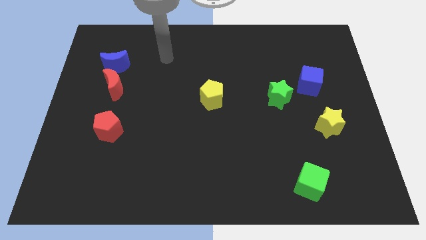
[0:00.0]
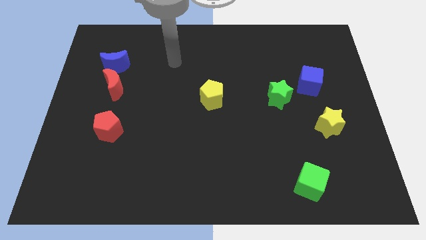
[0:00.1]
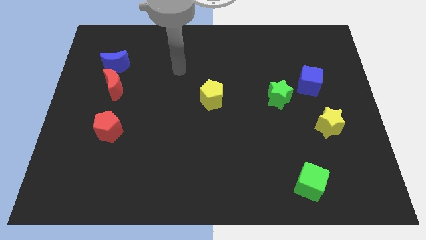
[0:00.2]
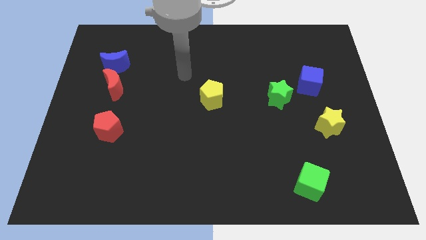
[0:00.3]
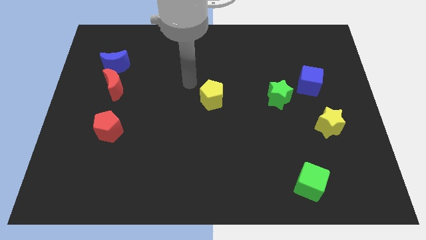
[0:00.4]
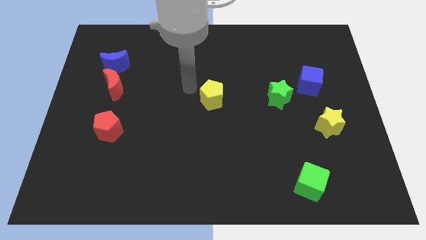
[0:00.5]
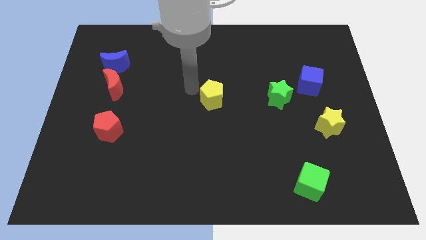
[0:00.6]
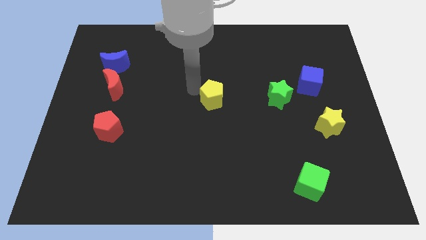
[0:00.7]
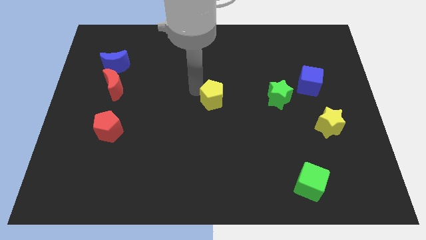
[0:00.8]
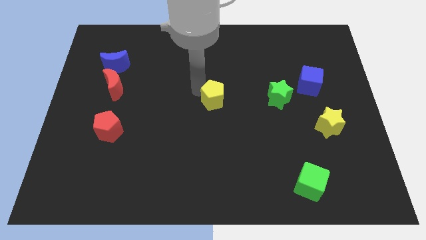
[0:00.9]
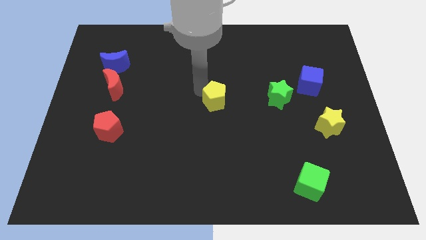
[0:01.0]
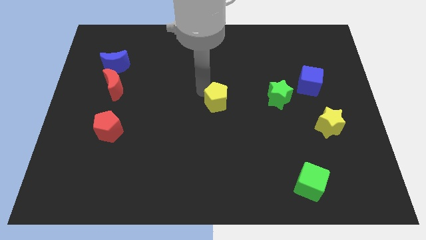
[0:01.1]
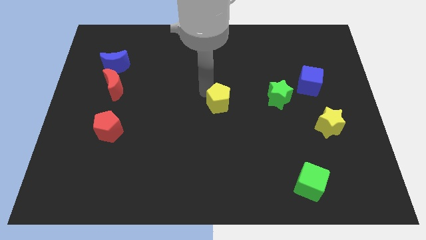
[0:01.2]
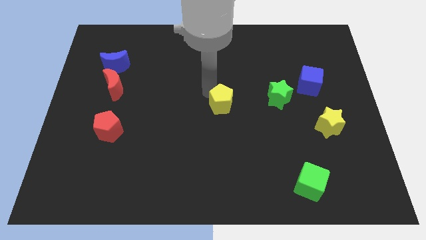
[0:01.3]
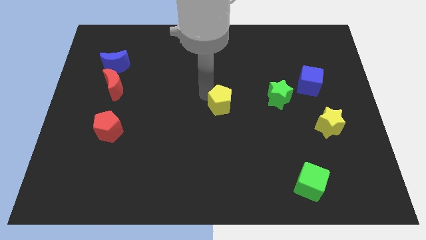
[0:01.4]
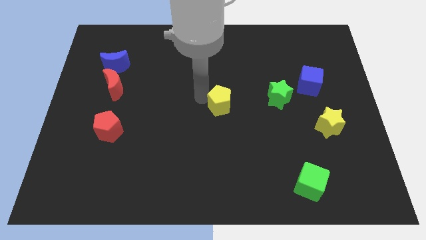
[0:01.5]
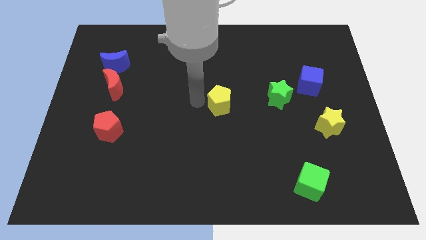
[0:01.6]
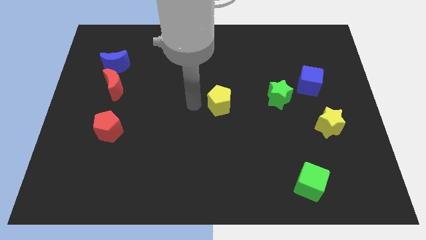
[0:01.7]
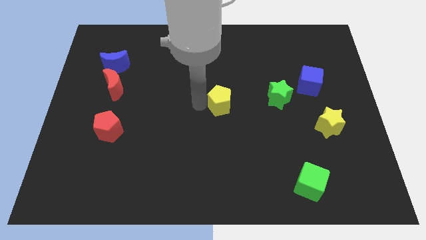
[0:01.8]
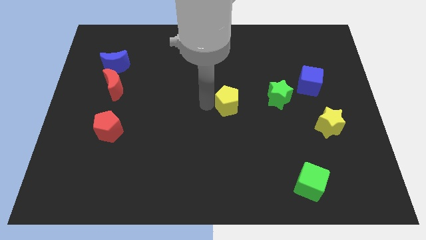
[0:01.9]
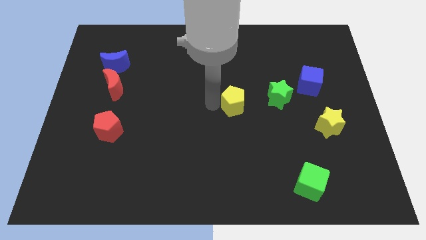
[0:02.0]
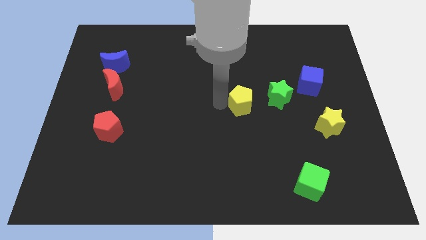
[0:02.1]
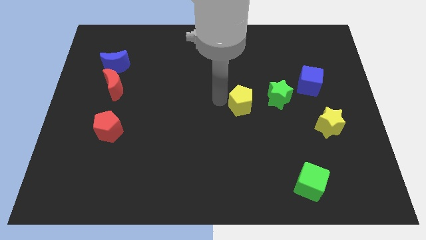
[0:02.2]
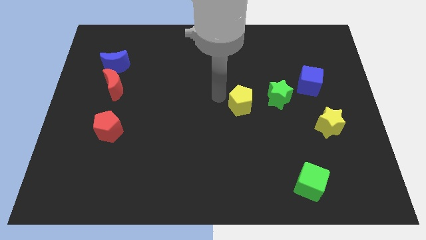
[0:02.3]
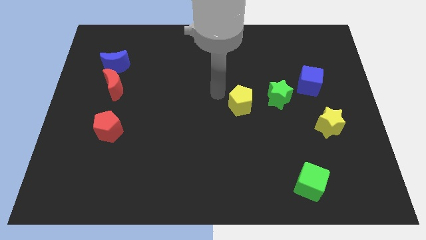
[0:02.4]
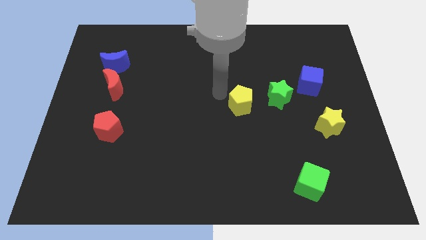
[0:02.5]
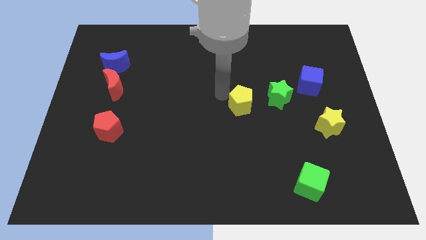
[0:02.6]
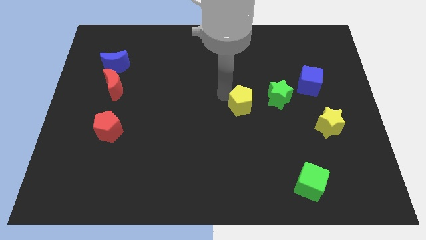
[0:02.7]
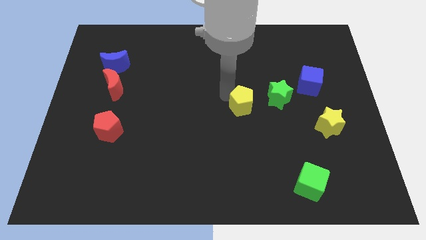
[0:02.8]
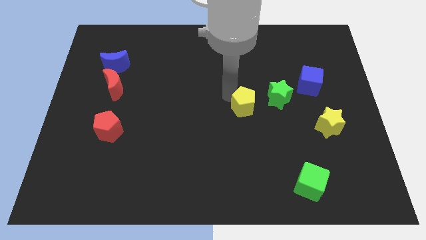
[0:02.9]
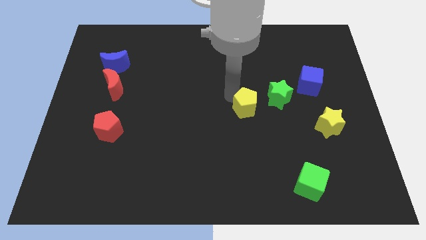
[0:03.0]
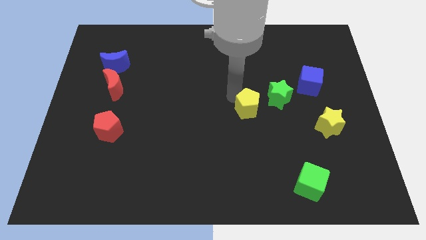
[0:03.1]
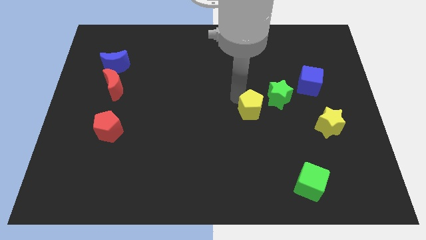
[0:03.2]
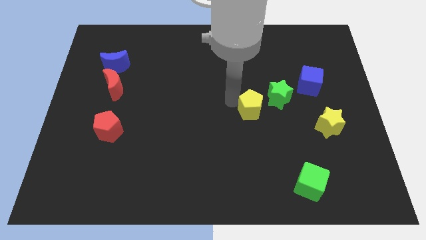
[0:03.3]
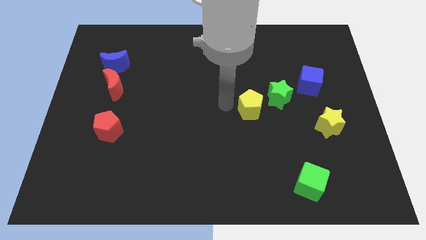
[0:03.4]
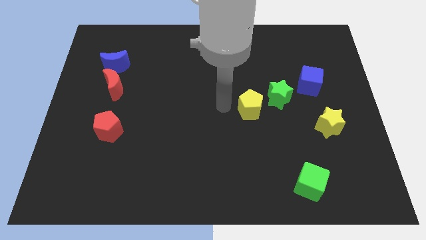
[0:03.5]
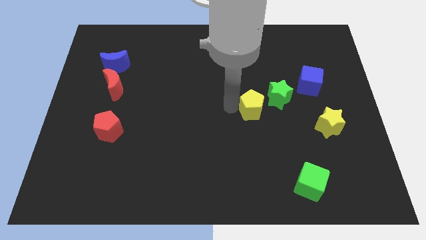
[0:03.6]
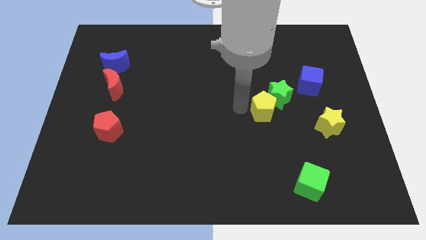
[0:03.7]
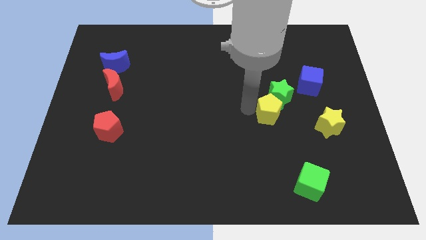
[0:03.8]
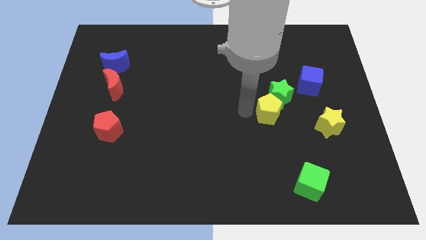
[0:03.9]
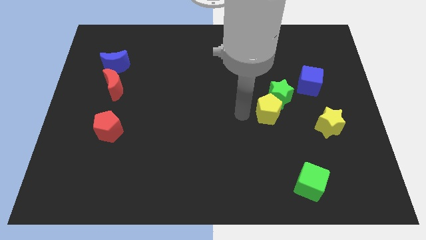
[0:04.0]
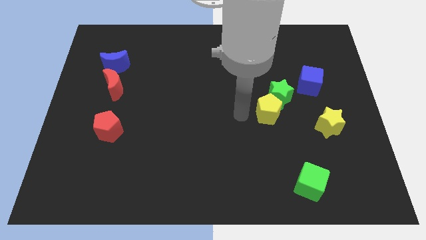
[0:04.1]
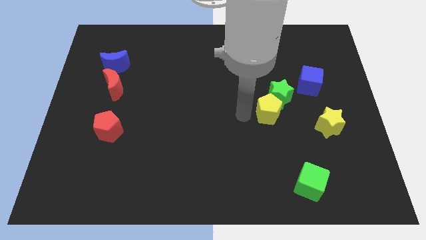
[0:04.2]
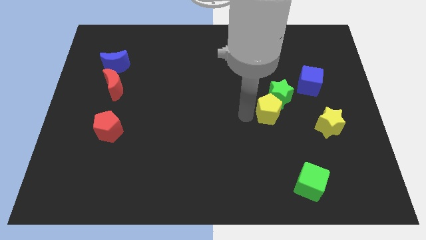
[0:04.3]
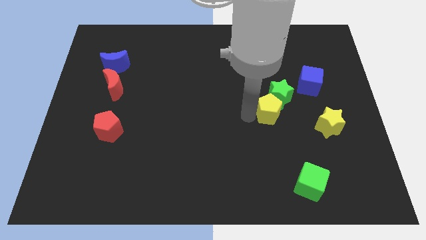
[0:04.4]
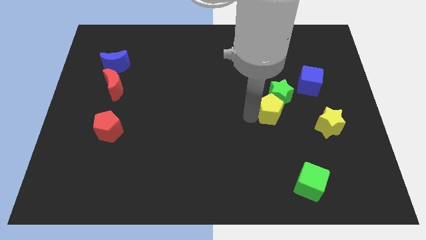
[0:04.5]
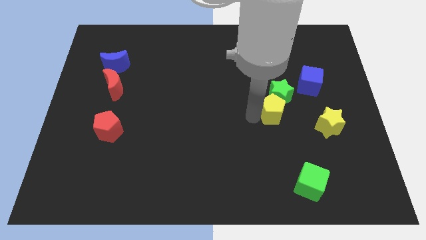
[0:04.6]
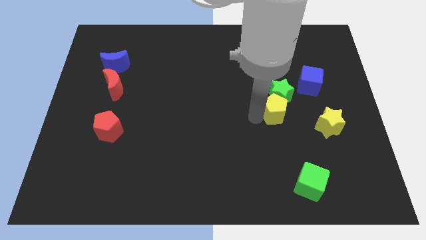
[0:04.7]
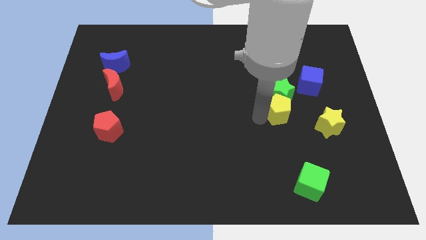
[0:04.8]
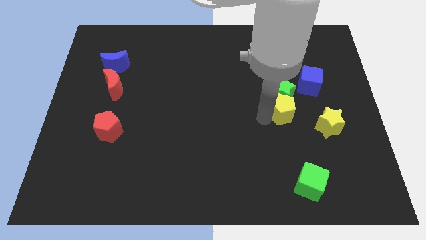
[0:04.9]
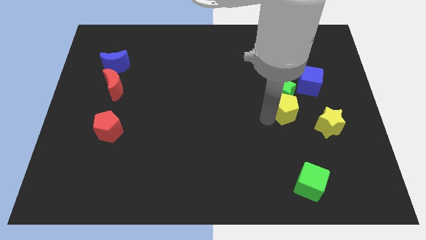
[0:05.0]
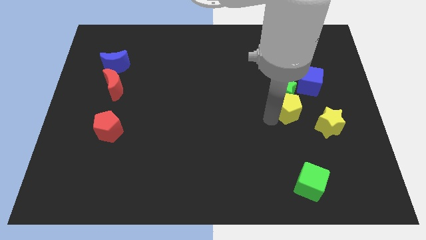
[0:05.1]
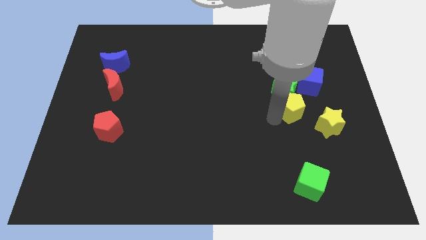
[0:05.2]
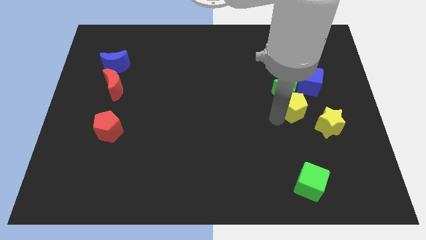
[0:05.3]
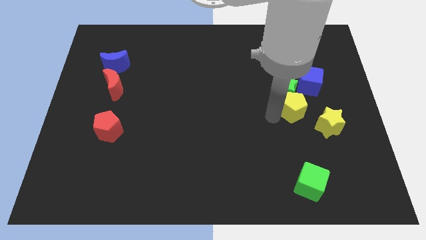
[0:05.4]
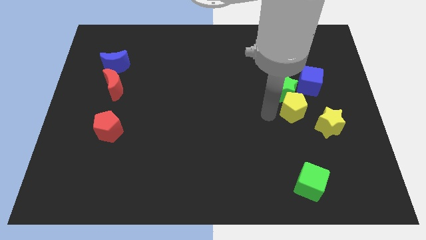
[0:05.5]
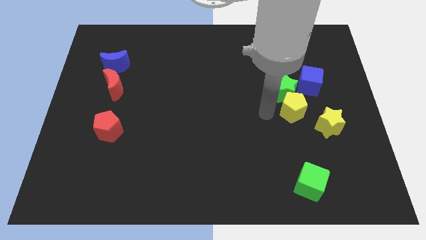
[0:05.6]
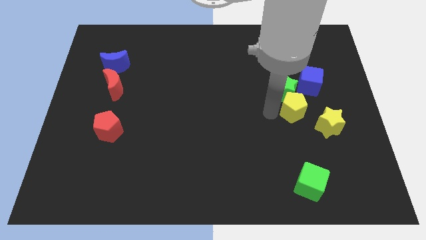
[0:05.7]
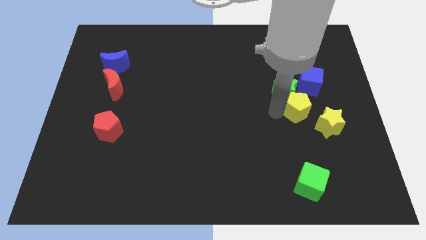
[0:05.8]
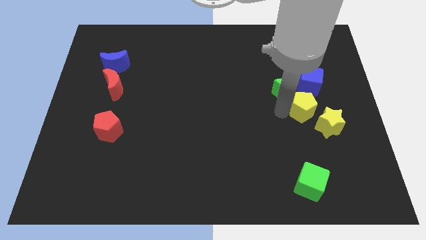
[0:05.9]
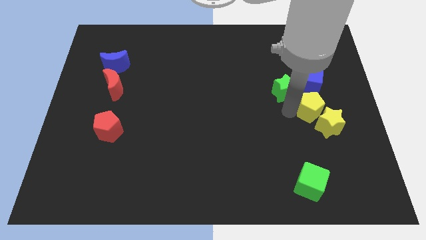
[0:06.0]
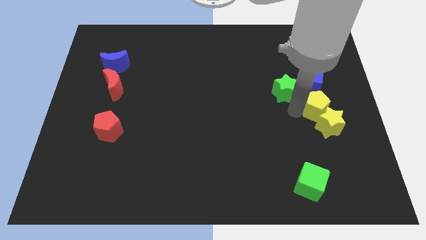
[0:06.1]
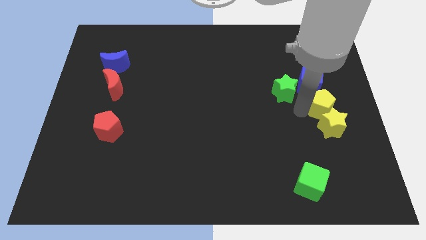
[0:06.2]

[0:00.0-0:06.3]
move the yellow pentagon to the right side
